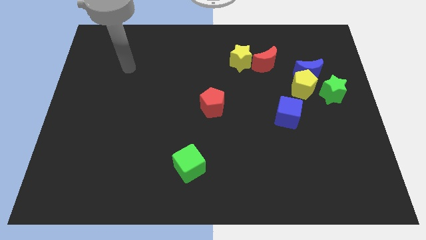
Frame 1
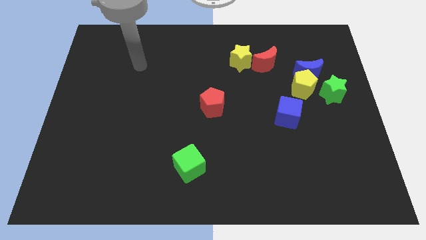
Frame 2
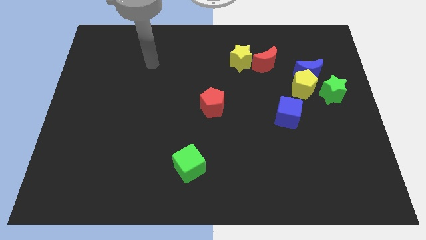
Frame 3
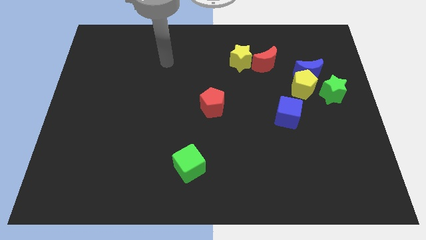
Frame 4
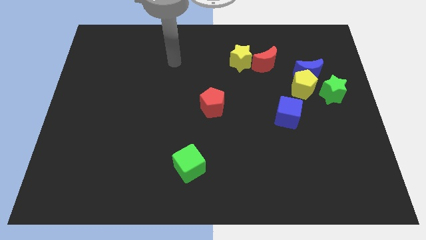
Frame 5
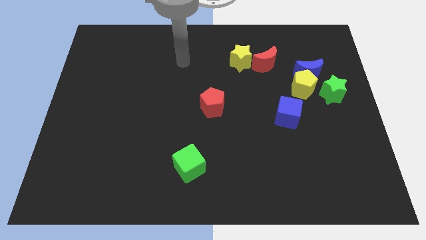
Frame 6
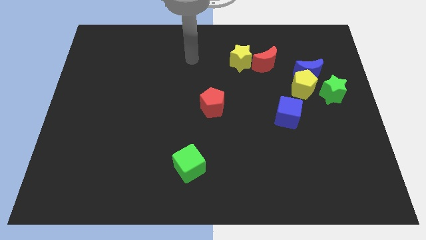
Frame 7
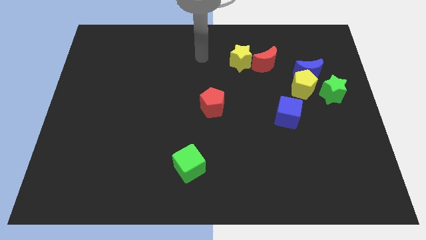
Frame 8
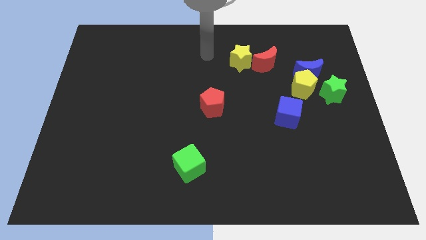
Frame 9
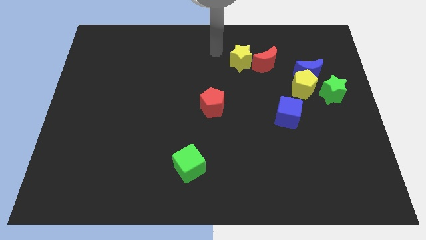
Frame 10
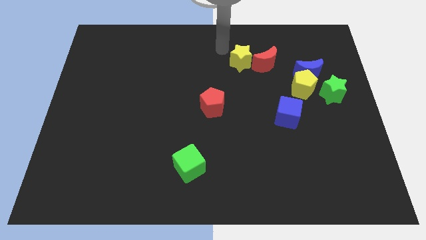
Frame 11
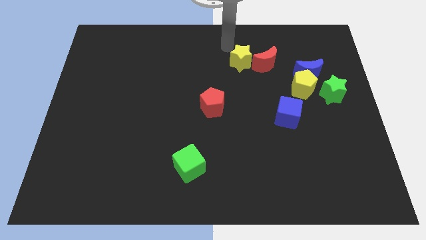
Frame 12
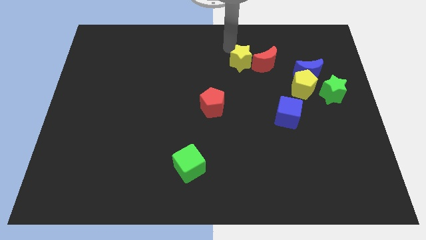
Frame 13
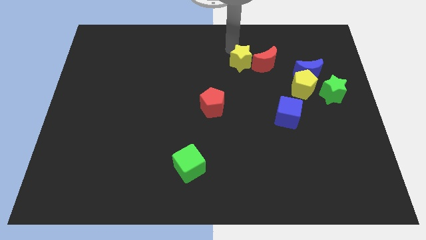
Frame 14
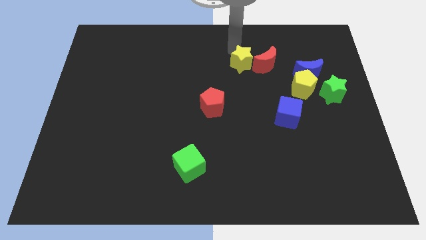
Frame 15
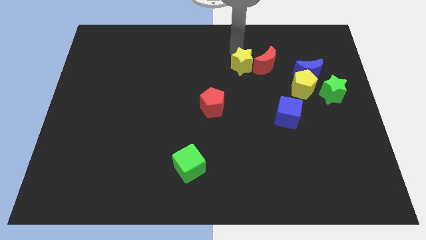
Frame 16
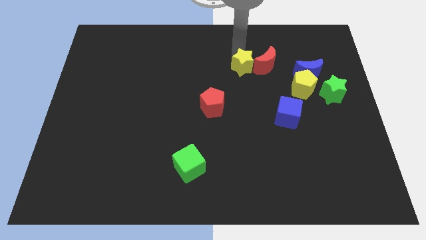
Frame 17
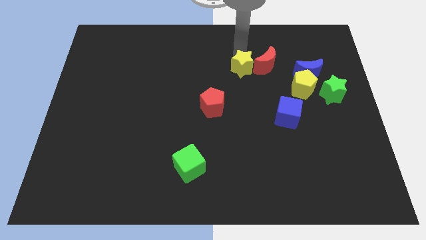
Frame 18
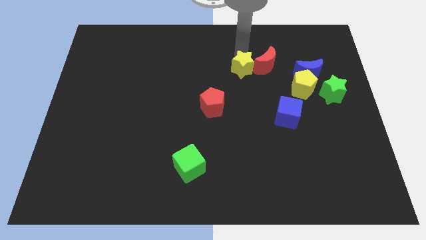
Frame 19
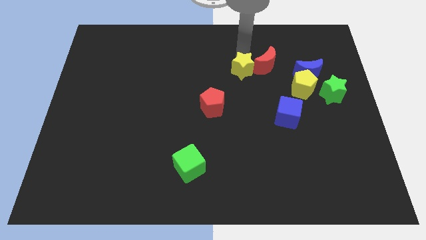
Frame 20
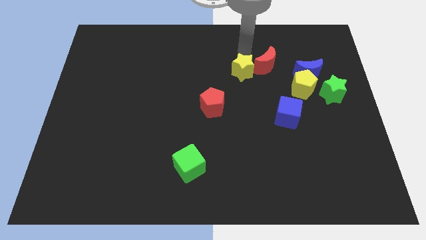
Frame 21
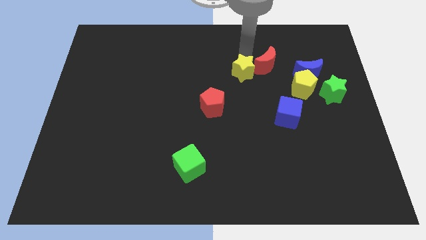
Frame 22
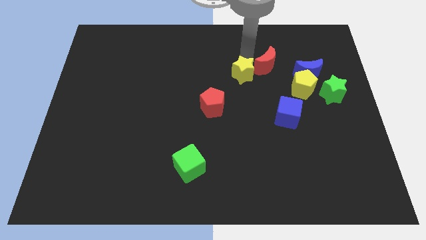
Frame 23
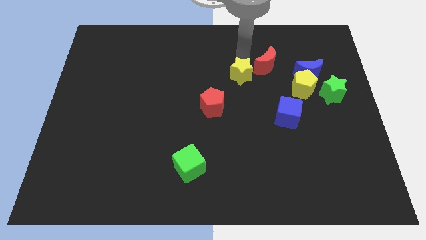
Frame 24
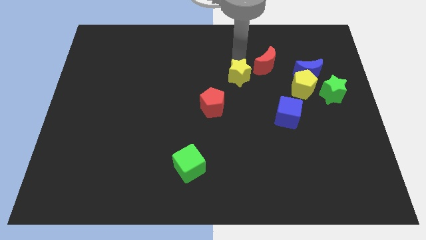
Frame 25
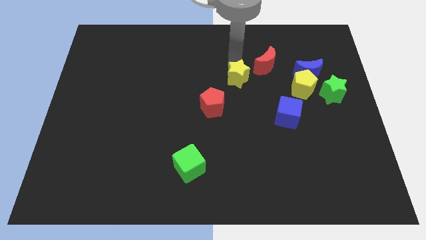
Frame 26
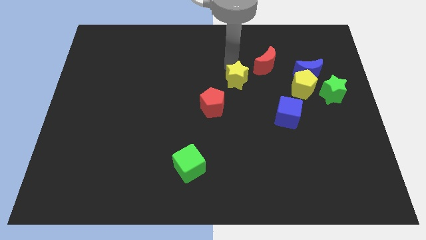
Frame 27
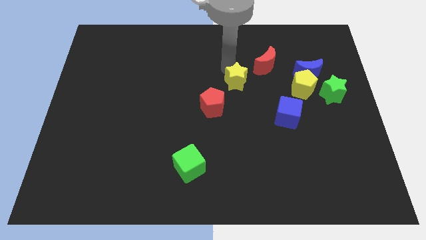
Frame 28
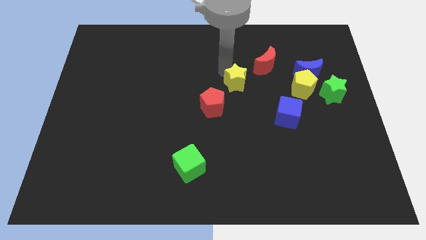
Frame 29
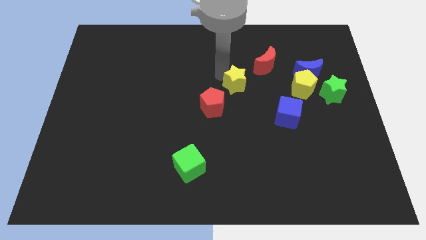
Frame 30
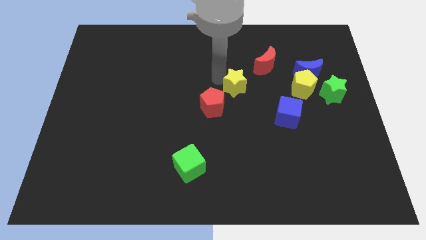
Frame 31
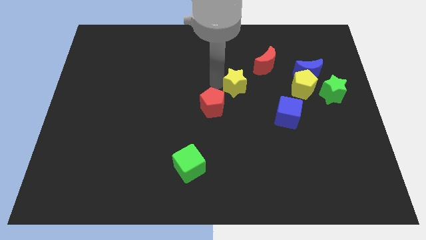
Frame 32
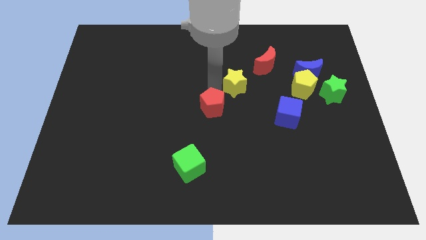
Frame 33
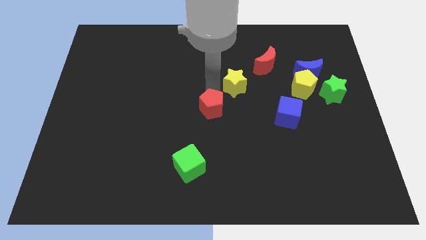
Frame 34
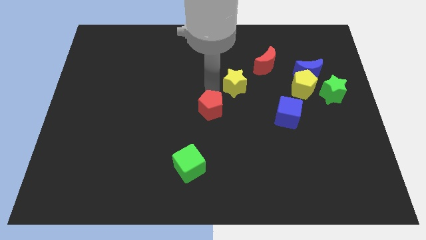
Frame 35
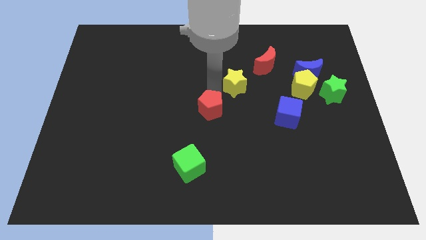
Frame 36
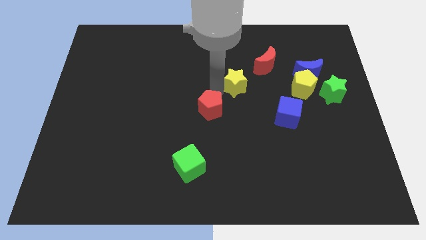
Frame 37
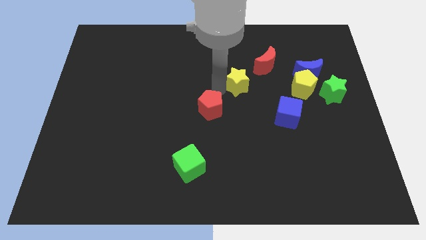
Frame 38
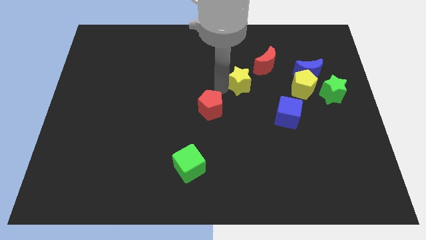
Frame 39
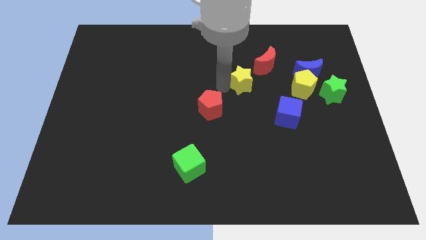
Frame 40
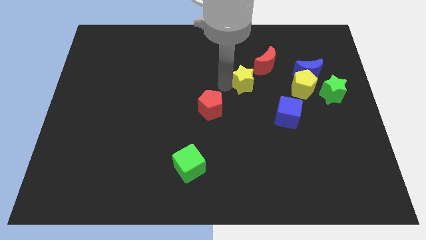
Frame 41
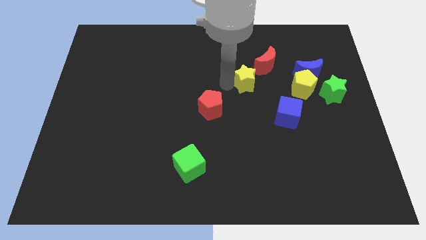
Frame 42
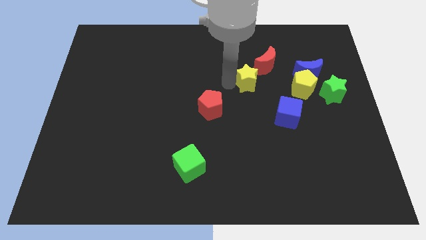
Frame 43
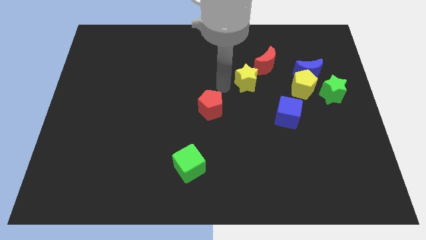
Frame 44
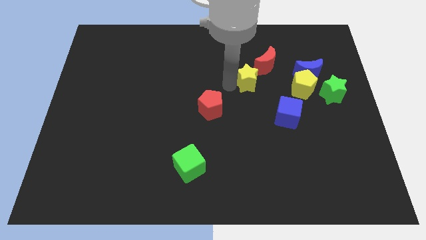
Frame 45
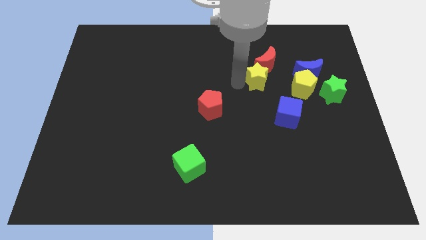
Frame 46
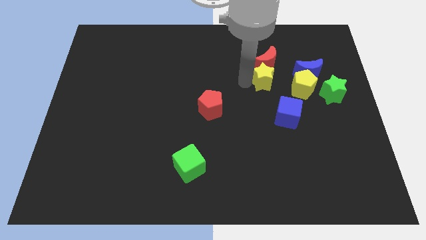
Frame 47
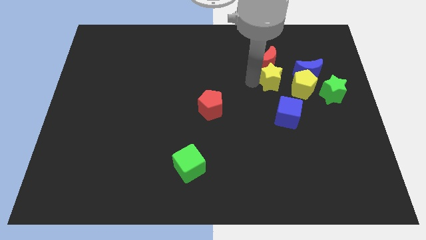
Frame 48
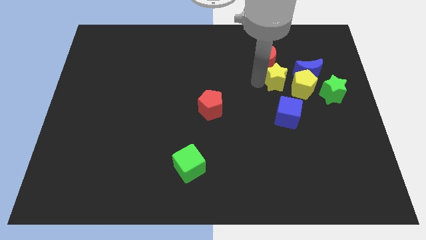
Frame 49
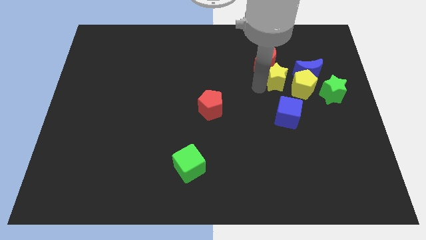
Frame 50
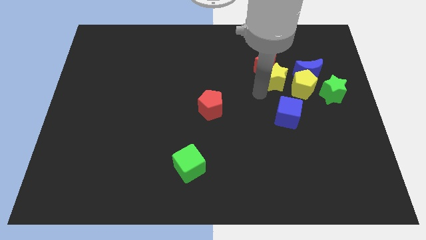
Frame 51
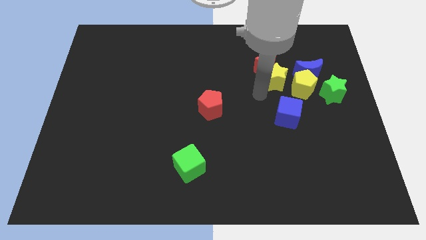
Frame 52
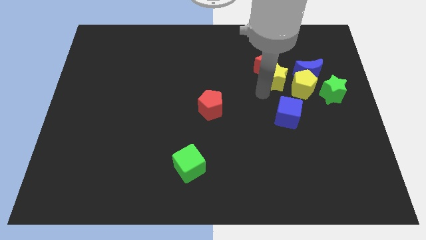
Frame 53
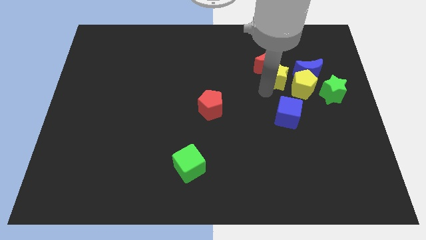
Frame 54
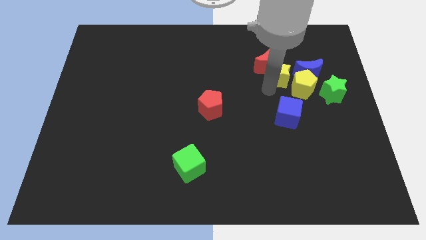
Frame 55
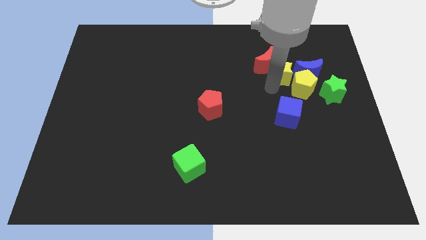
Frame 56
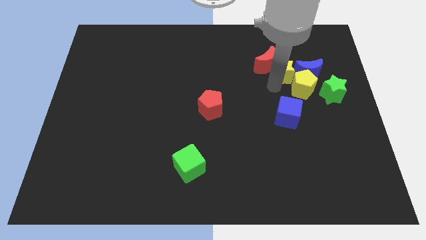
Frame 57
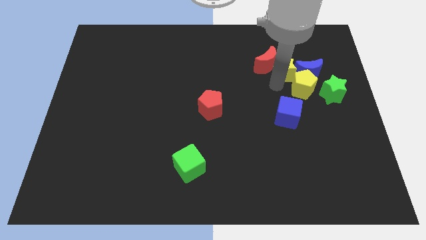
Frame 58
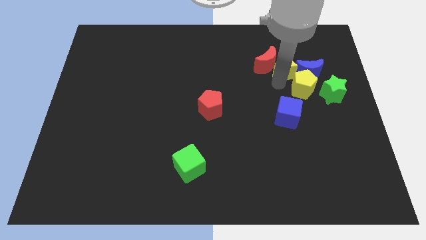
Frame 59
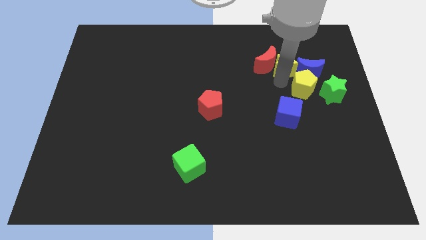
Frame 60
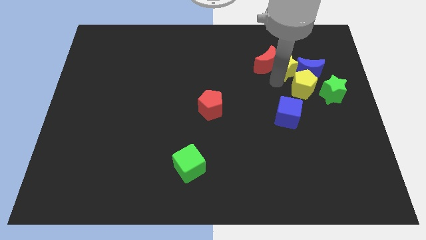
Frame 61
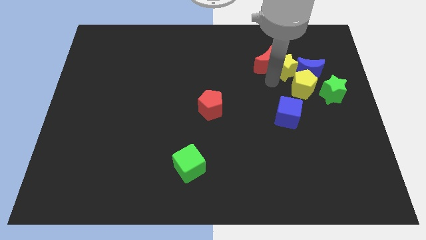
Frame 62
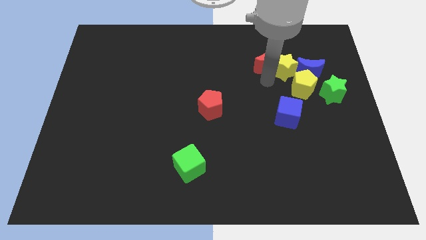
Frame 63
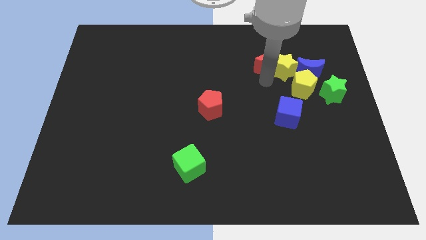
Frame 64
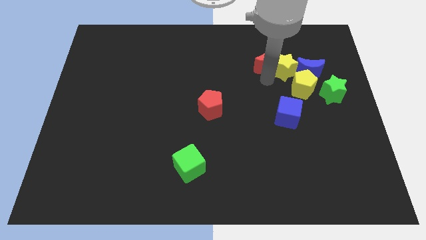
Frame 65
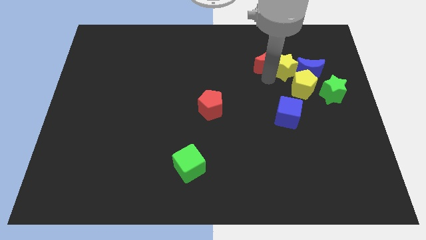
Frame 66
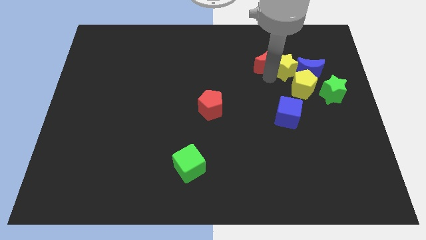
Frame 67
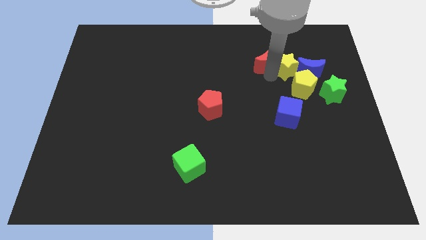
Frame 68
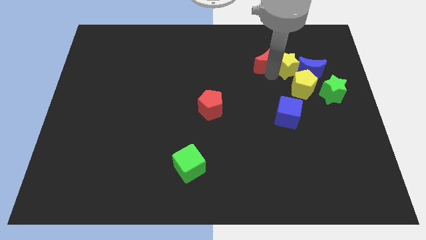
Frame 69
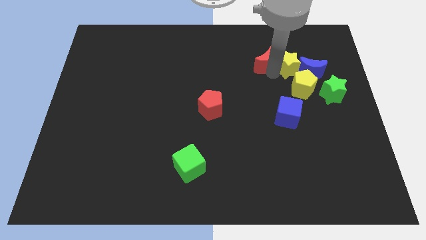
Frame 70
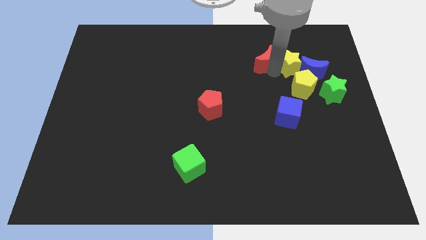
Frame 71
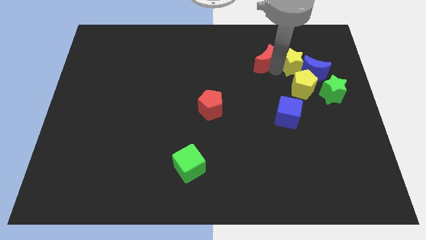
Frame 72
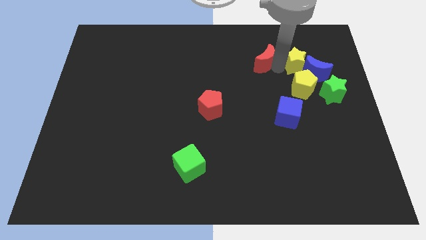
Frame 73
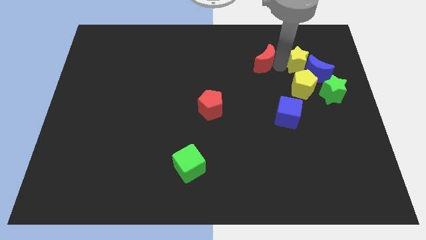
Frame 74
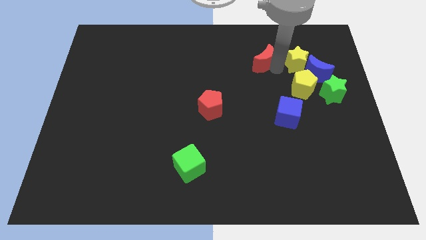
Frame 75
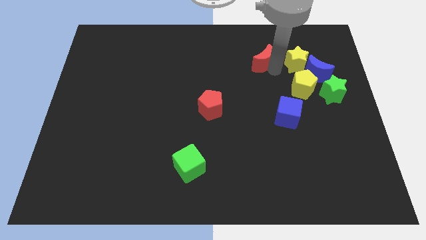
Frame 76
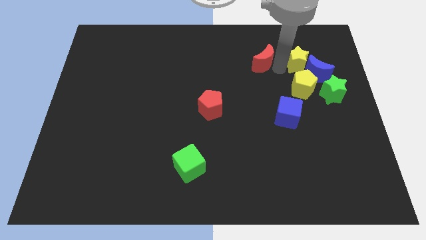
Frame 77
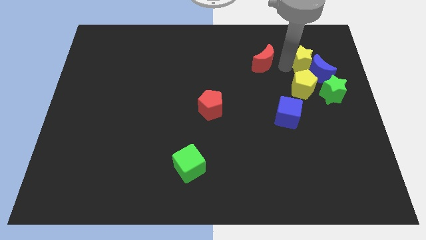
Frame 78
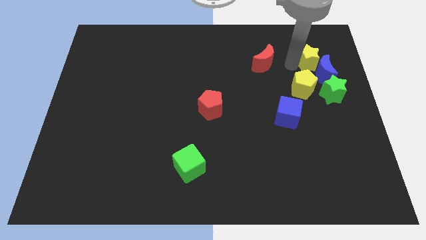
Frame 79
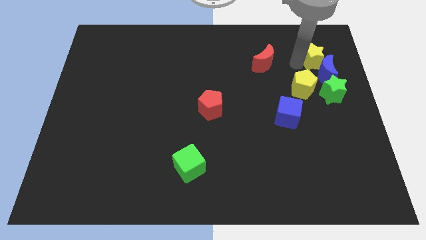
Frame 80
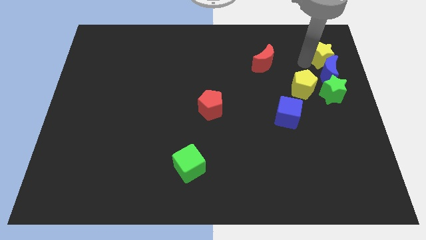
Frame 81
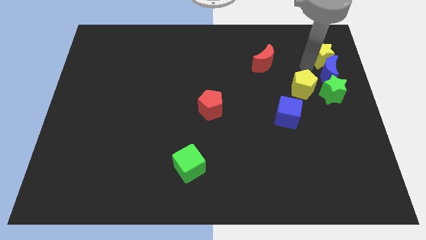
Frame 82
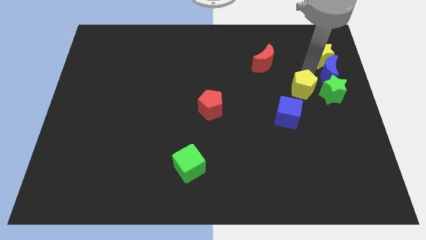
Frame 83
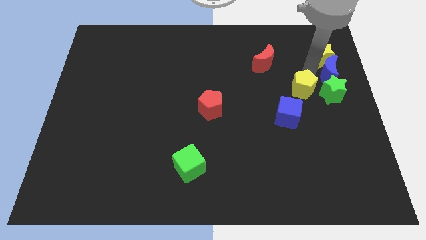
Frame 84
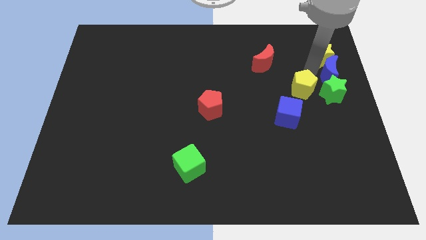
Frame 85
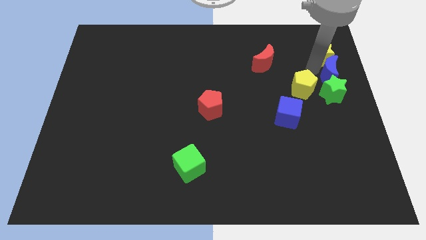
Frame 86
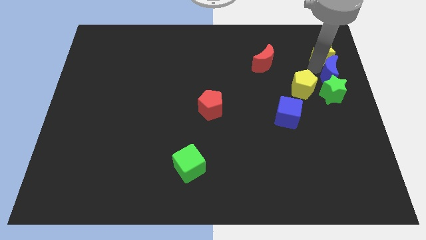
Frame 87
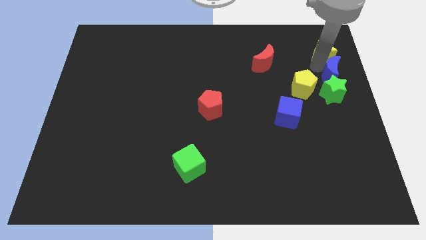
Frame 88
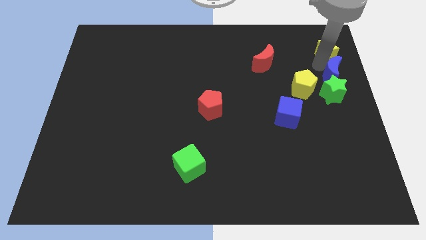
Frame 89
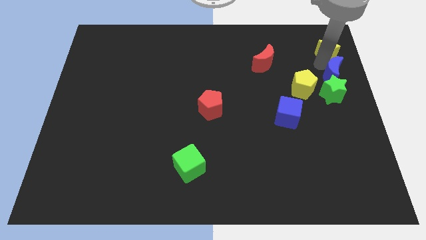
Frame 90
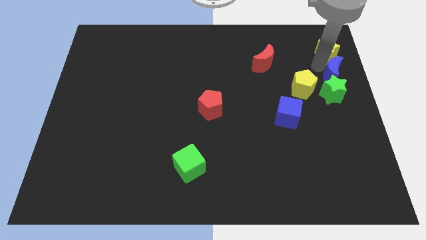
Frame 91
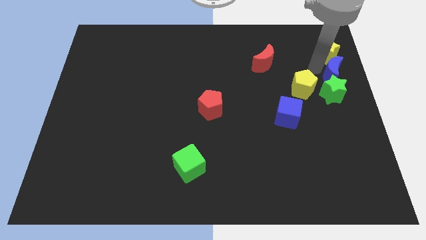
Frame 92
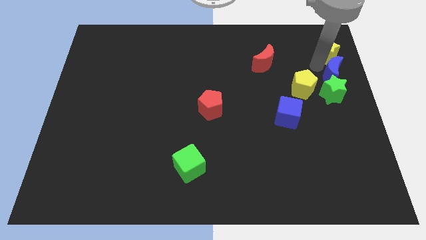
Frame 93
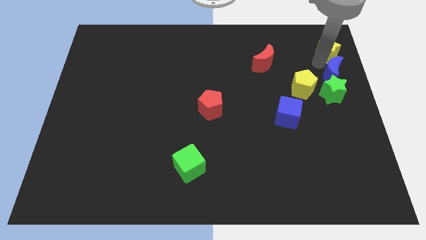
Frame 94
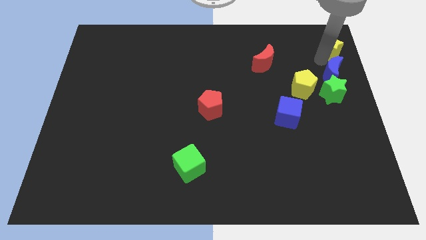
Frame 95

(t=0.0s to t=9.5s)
slide the yellow star to the top right
